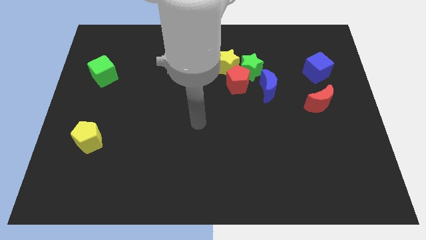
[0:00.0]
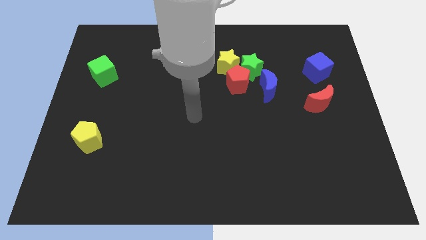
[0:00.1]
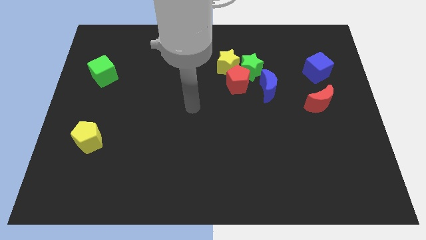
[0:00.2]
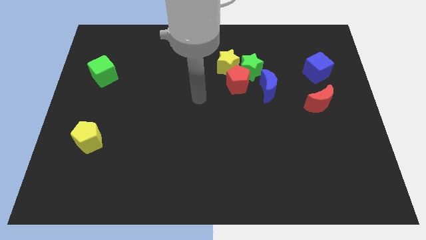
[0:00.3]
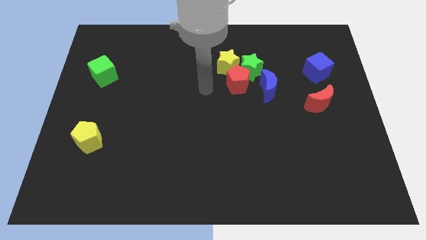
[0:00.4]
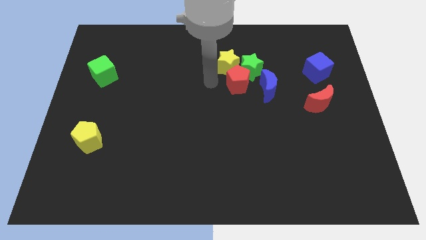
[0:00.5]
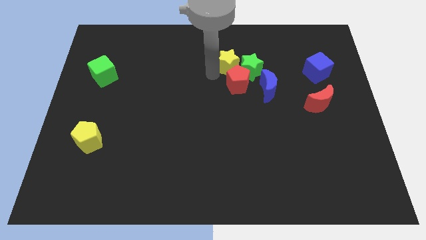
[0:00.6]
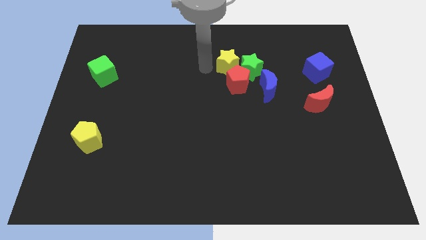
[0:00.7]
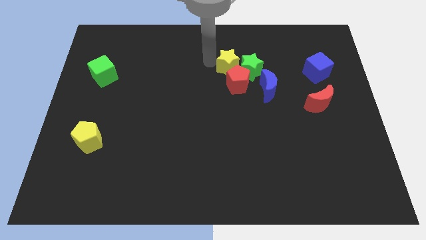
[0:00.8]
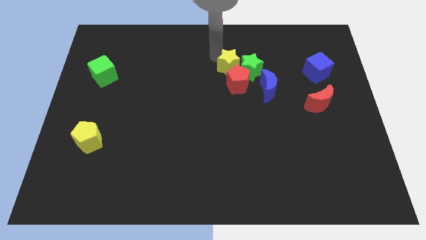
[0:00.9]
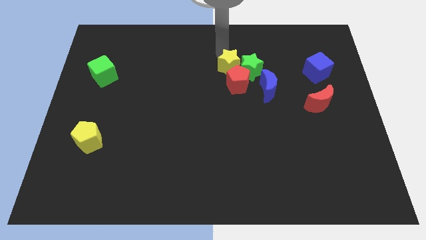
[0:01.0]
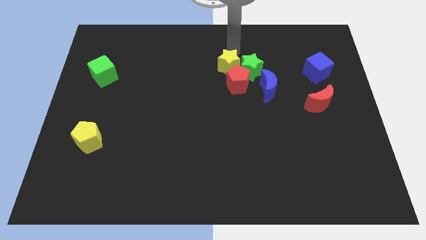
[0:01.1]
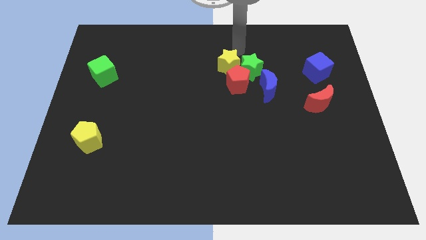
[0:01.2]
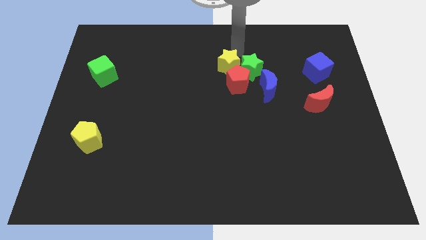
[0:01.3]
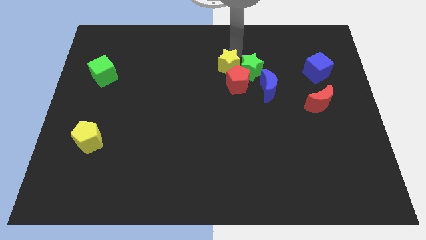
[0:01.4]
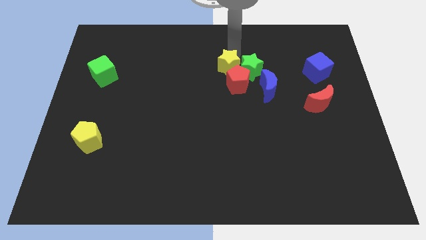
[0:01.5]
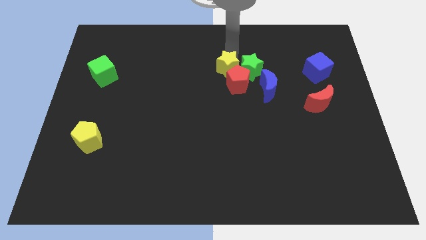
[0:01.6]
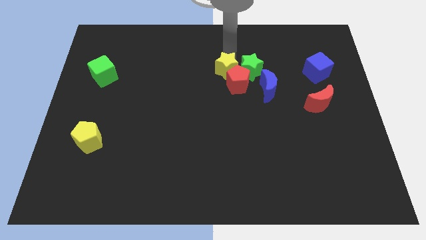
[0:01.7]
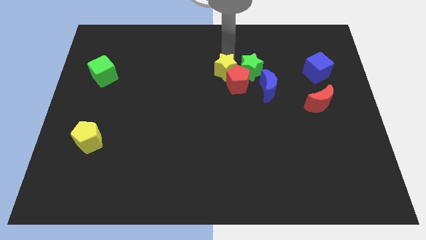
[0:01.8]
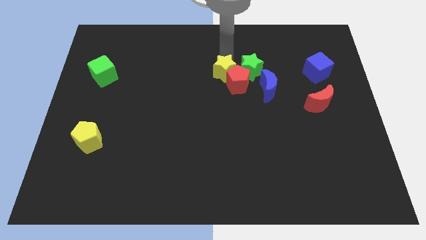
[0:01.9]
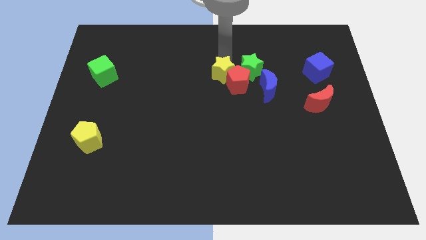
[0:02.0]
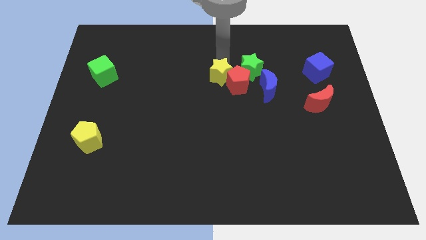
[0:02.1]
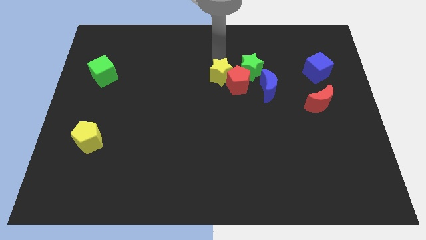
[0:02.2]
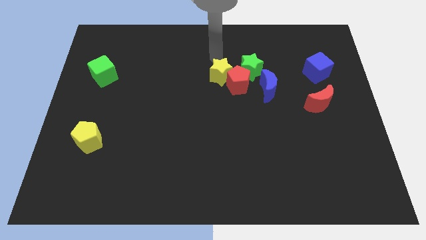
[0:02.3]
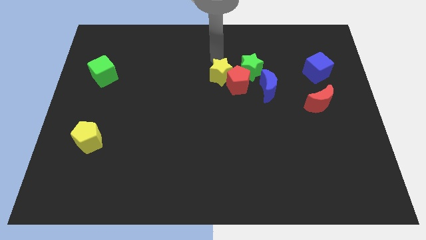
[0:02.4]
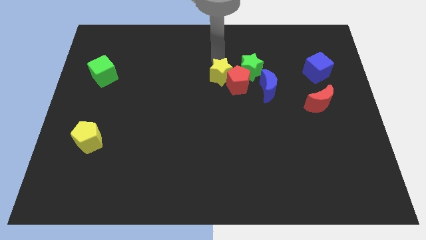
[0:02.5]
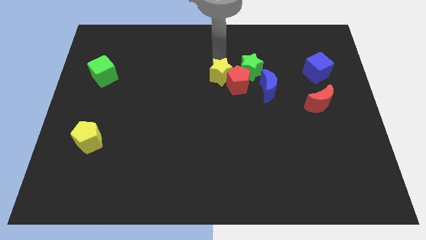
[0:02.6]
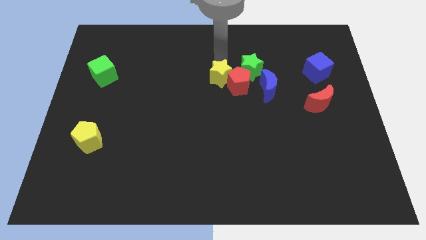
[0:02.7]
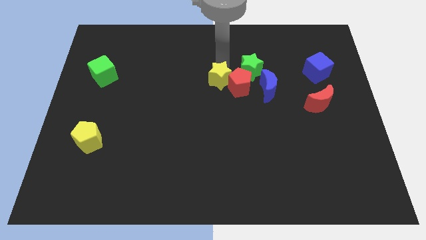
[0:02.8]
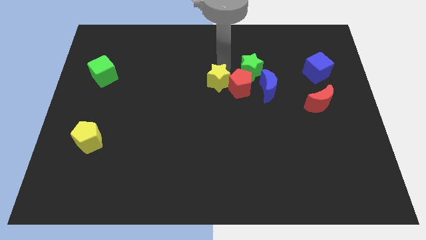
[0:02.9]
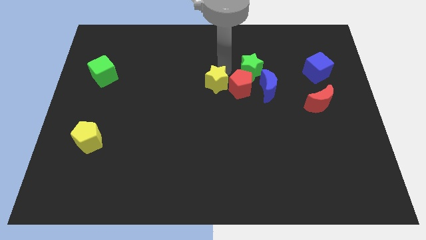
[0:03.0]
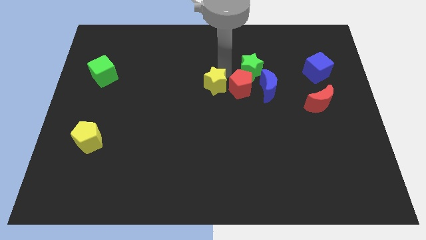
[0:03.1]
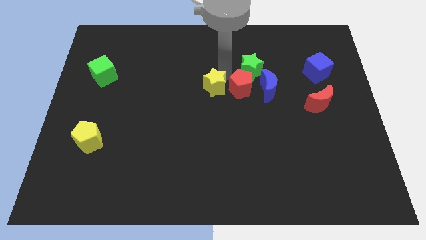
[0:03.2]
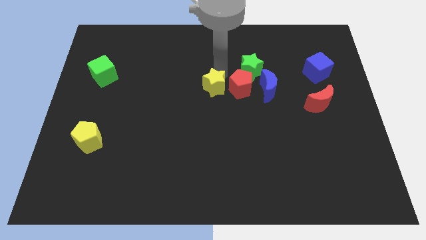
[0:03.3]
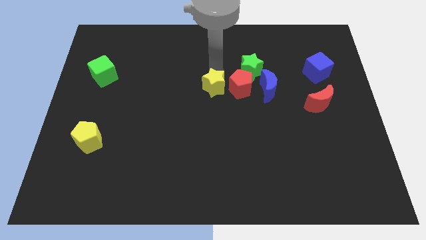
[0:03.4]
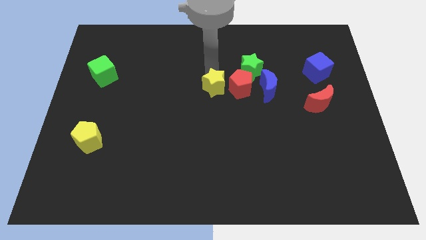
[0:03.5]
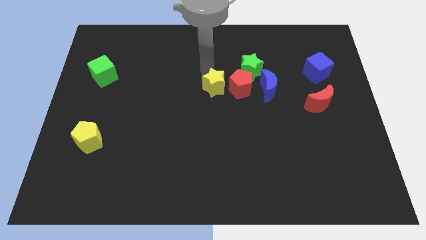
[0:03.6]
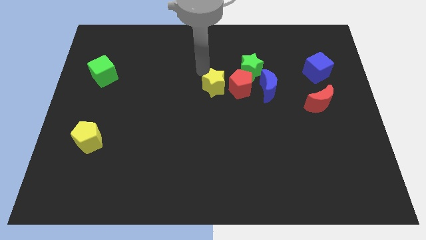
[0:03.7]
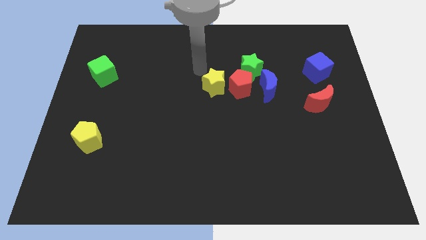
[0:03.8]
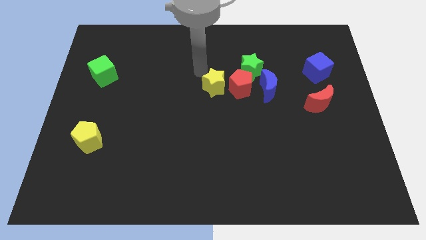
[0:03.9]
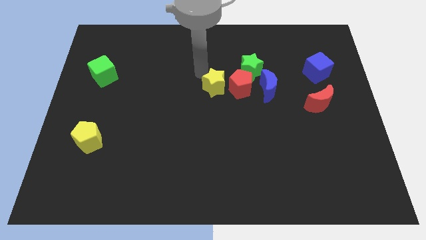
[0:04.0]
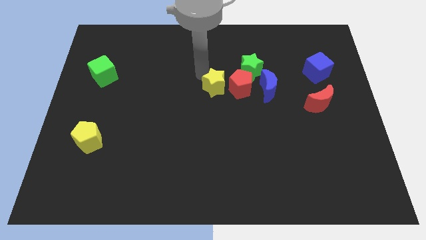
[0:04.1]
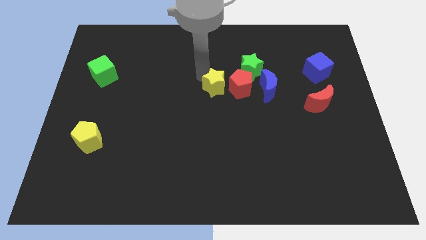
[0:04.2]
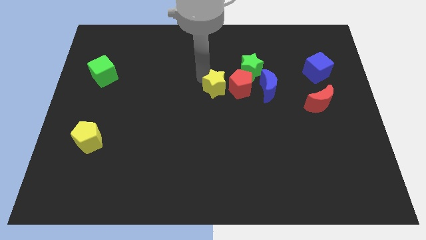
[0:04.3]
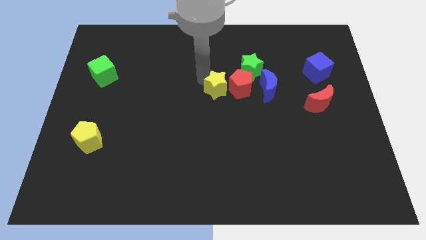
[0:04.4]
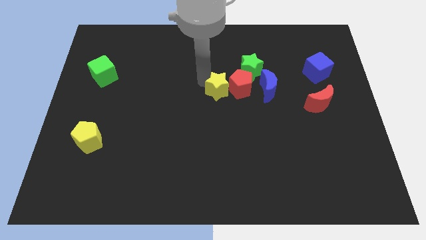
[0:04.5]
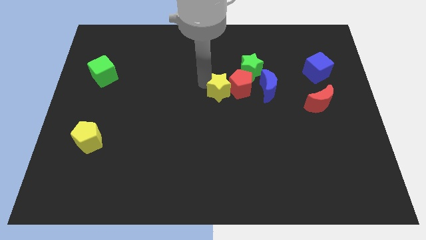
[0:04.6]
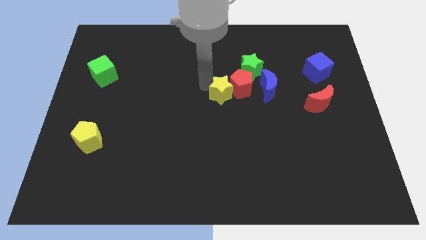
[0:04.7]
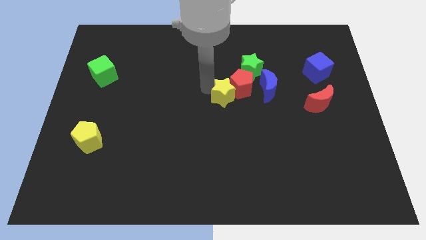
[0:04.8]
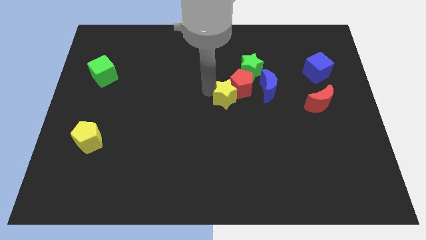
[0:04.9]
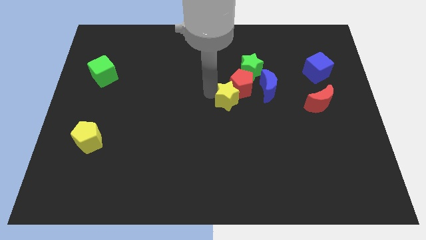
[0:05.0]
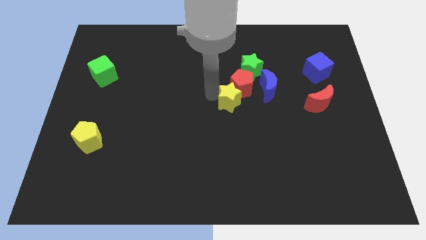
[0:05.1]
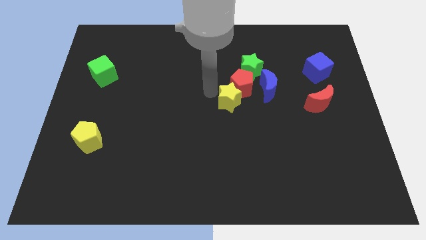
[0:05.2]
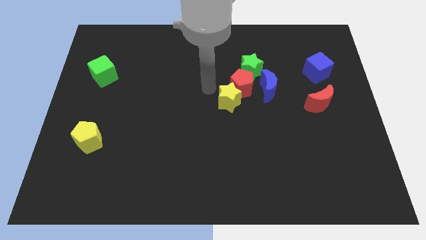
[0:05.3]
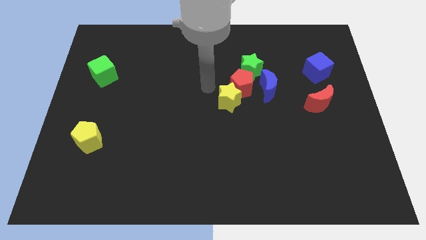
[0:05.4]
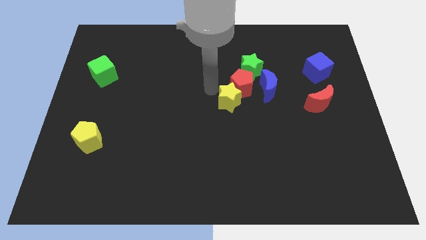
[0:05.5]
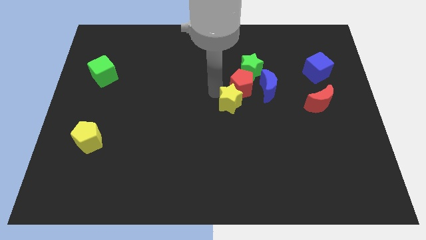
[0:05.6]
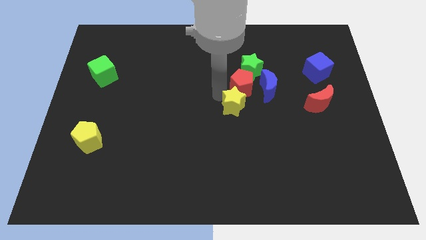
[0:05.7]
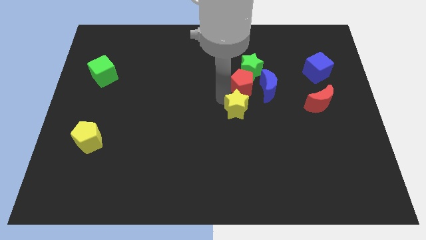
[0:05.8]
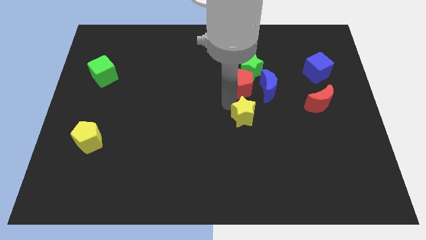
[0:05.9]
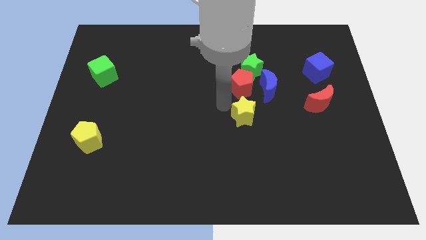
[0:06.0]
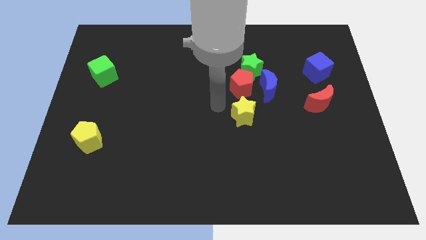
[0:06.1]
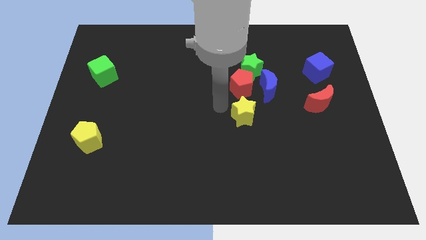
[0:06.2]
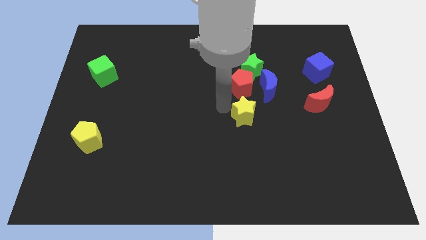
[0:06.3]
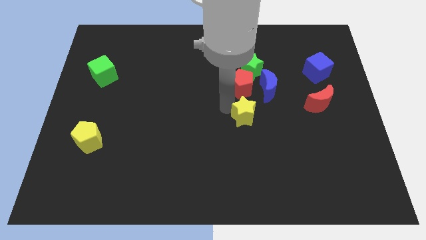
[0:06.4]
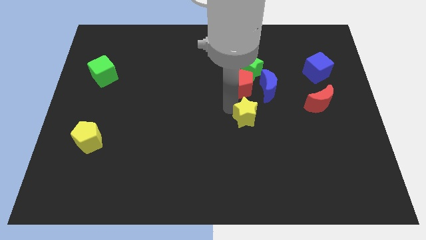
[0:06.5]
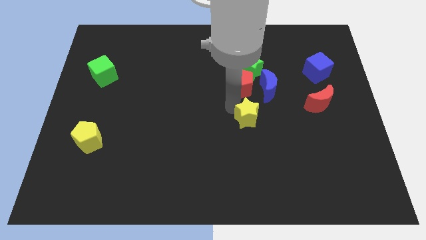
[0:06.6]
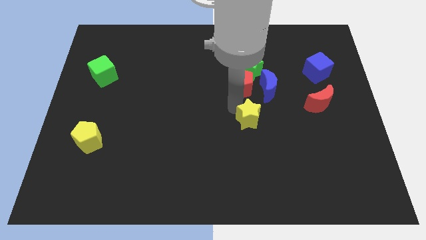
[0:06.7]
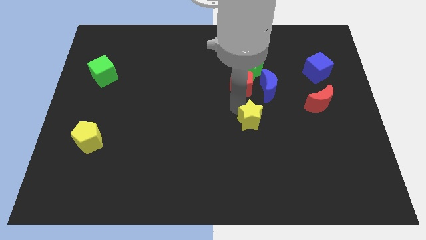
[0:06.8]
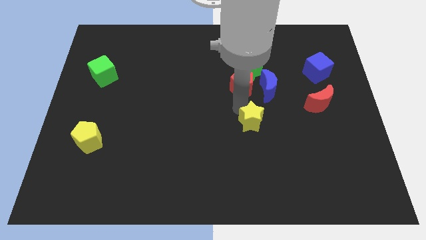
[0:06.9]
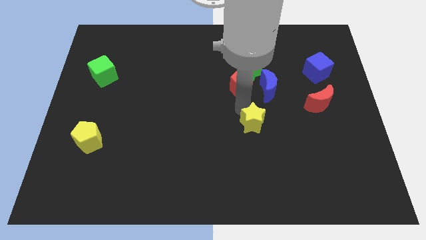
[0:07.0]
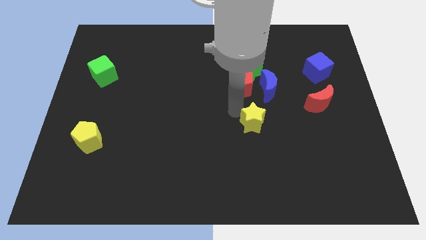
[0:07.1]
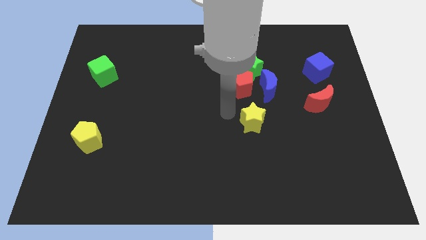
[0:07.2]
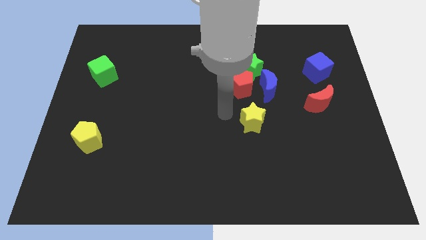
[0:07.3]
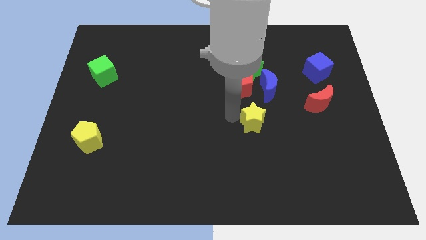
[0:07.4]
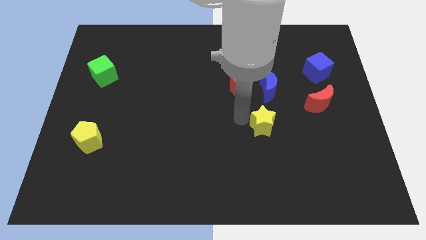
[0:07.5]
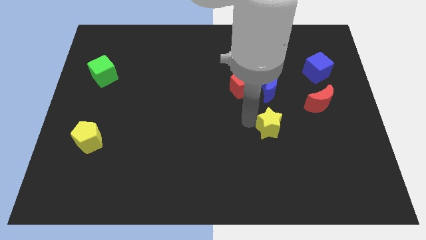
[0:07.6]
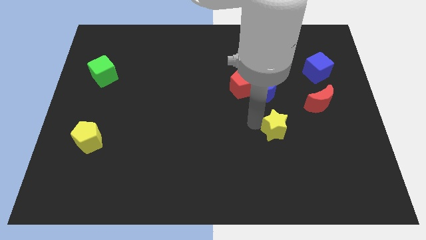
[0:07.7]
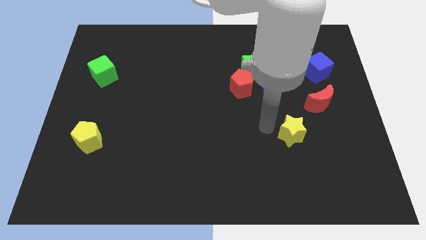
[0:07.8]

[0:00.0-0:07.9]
slide the yellow star downwards and right diagonally

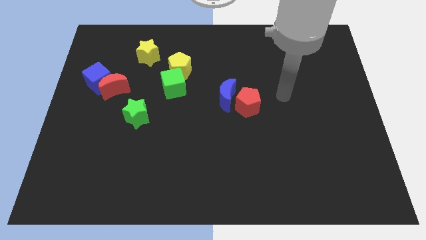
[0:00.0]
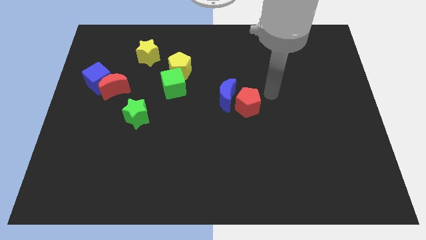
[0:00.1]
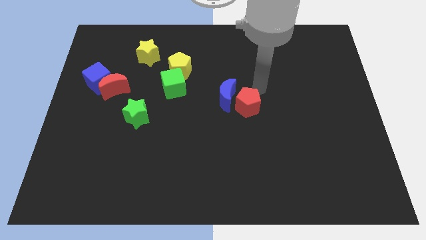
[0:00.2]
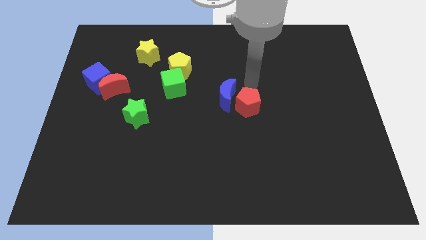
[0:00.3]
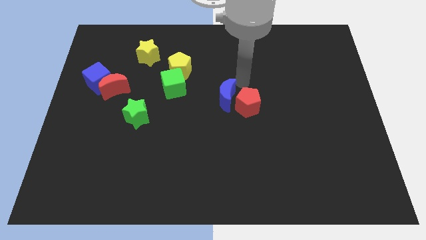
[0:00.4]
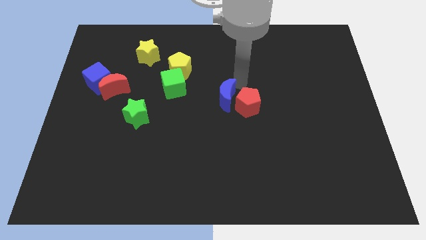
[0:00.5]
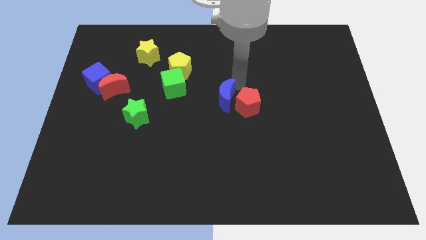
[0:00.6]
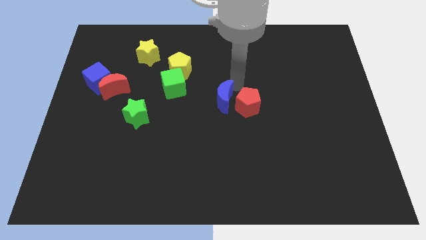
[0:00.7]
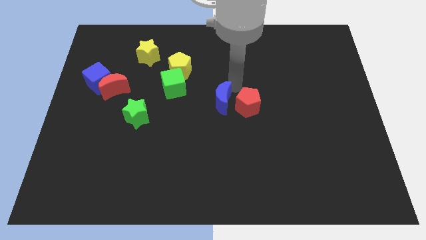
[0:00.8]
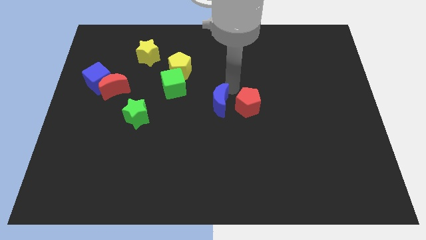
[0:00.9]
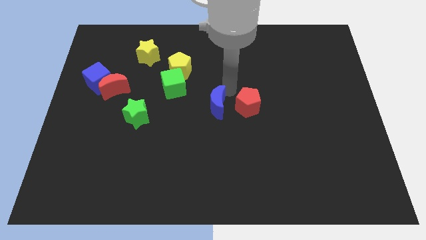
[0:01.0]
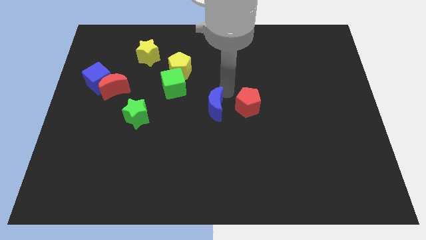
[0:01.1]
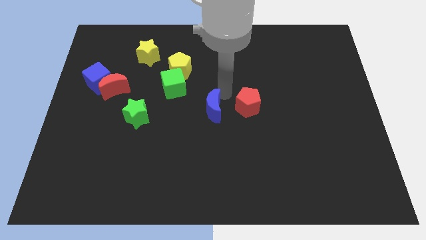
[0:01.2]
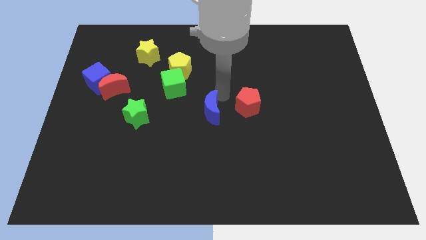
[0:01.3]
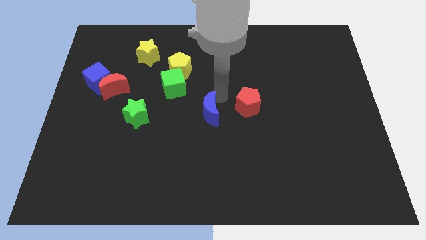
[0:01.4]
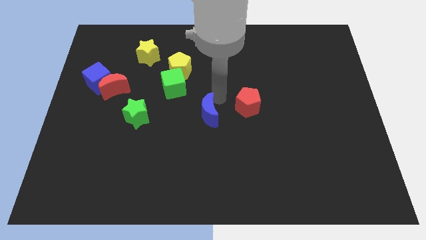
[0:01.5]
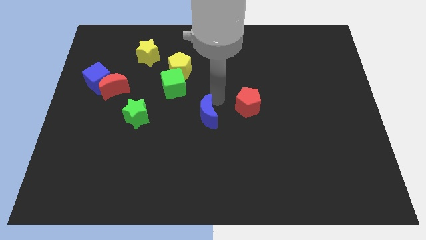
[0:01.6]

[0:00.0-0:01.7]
slightly slide the blue moon down and to the left diagonally
